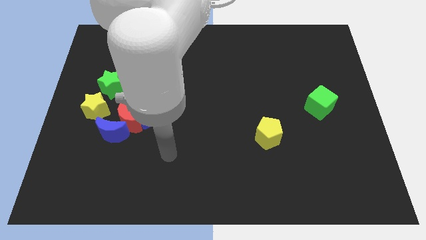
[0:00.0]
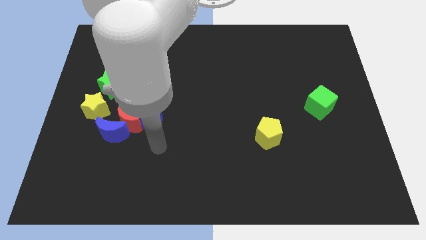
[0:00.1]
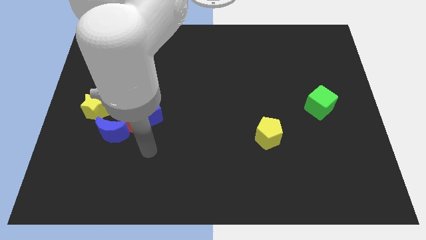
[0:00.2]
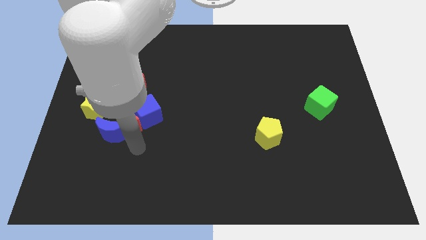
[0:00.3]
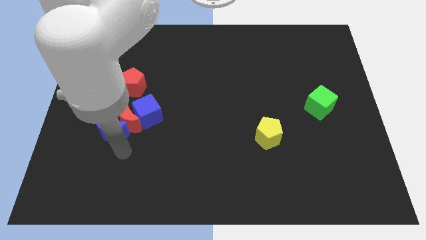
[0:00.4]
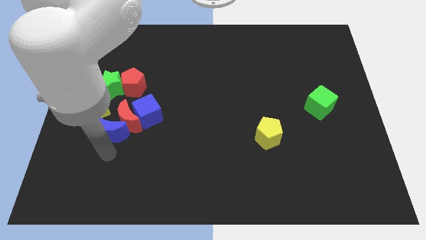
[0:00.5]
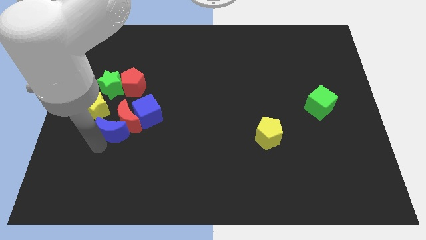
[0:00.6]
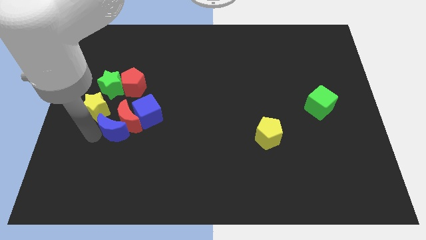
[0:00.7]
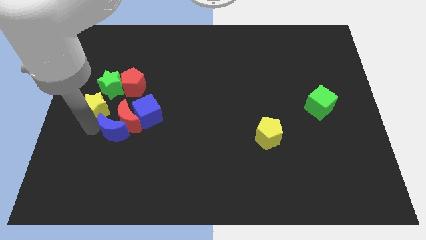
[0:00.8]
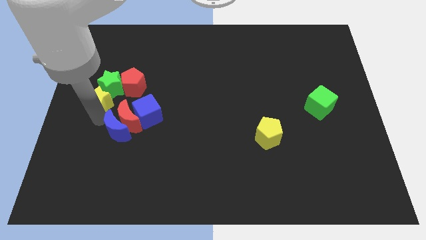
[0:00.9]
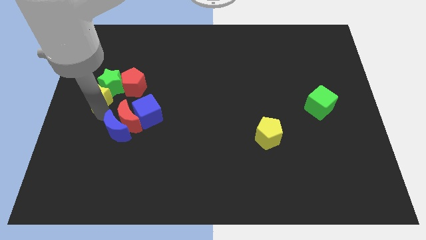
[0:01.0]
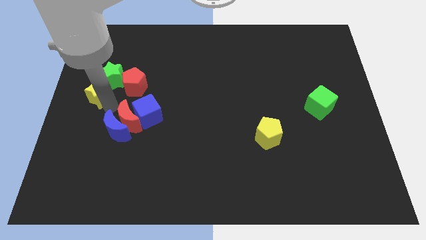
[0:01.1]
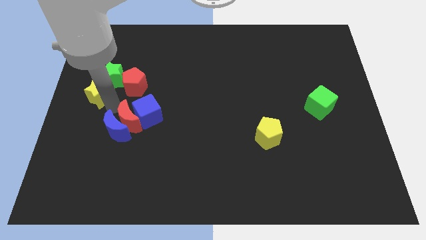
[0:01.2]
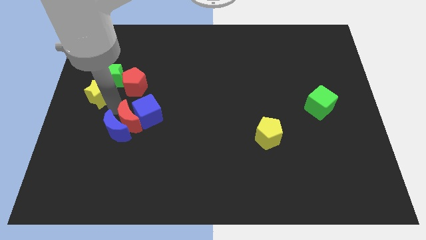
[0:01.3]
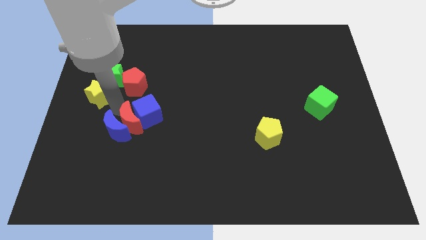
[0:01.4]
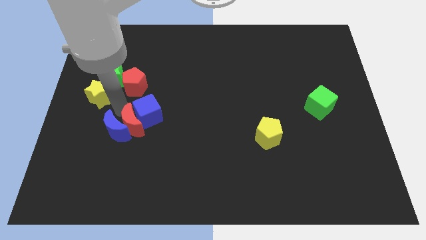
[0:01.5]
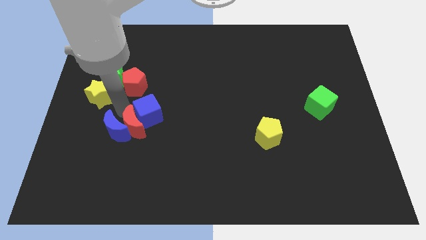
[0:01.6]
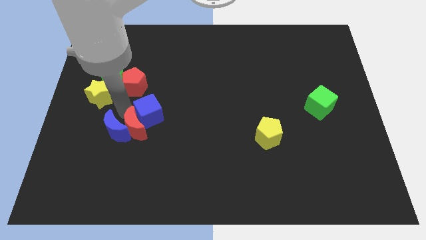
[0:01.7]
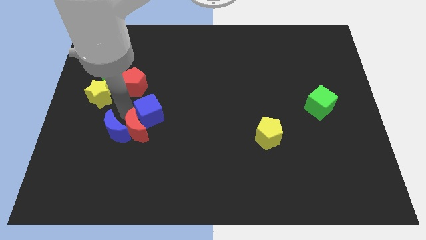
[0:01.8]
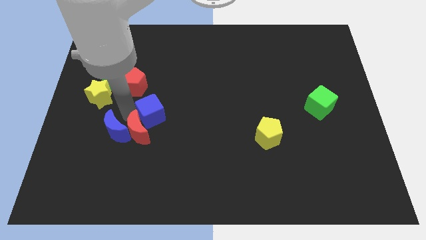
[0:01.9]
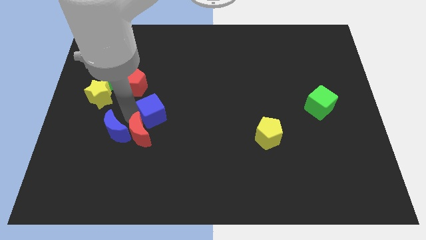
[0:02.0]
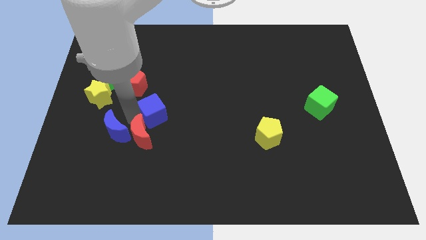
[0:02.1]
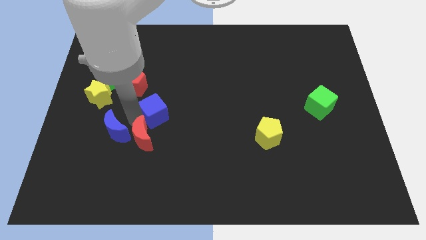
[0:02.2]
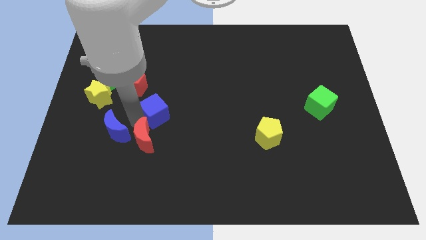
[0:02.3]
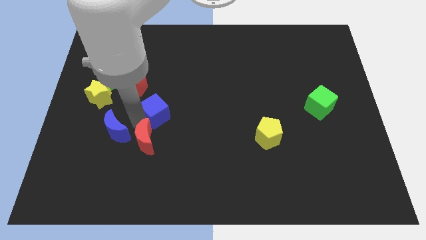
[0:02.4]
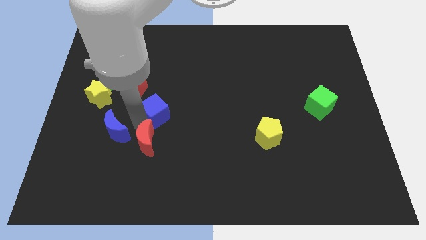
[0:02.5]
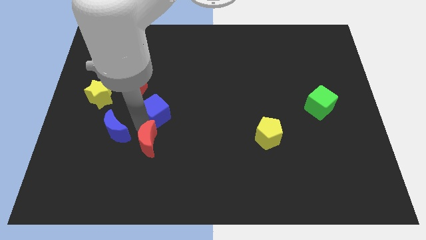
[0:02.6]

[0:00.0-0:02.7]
pull the red moon apart from the group of blocks

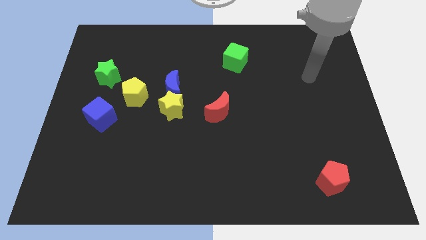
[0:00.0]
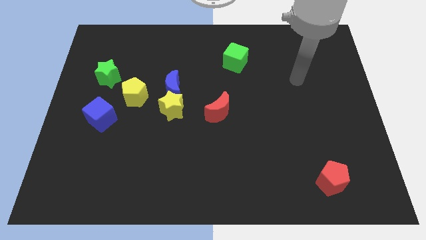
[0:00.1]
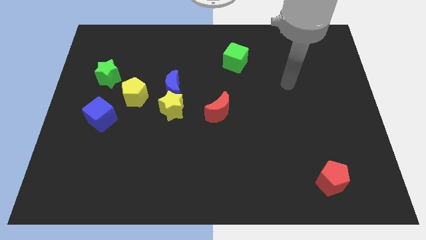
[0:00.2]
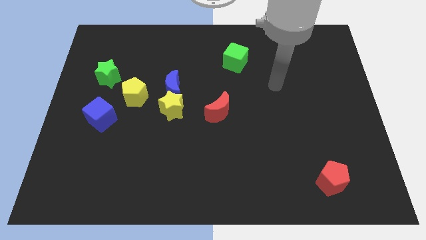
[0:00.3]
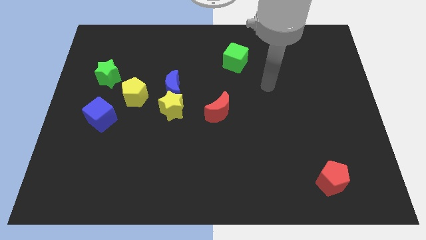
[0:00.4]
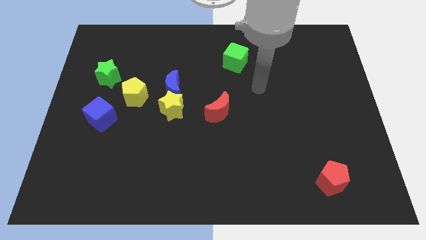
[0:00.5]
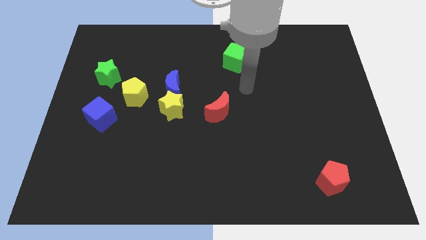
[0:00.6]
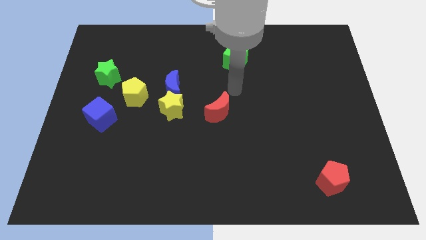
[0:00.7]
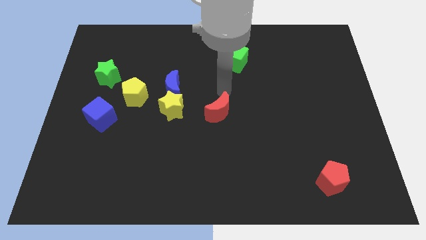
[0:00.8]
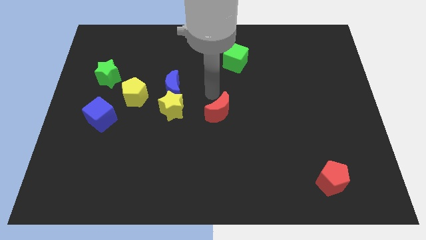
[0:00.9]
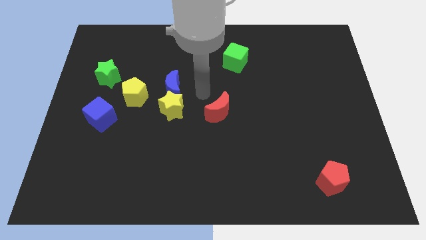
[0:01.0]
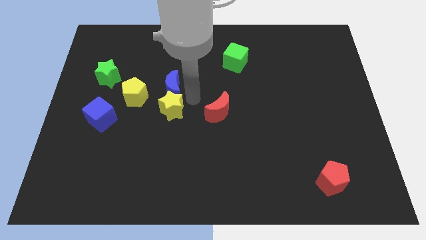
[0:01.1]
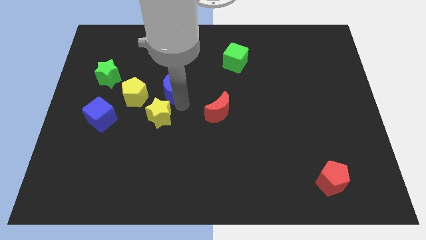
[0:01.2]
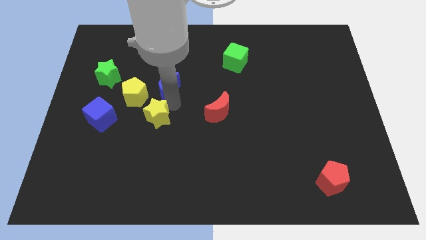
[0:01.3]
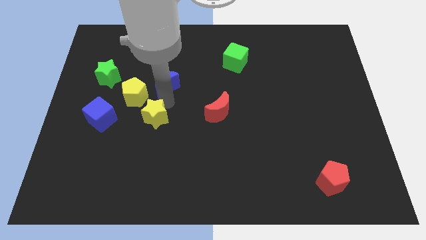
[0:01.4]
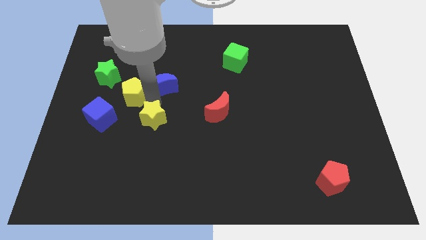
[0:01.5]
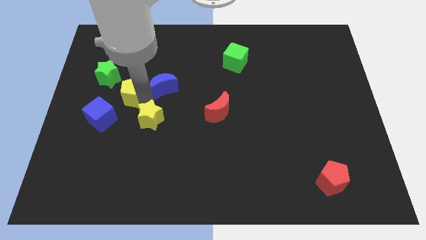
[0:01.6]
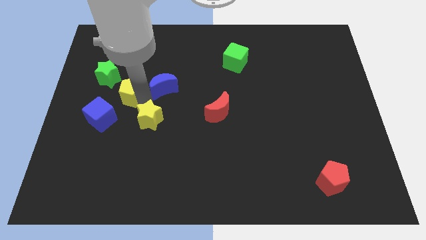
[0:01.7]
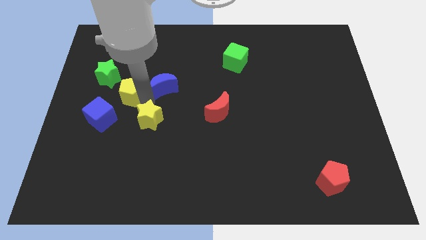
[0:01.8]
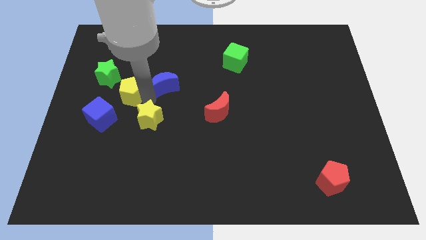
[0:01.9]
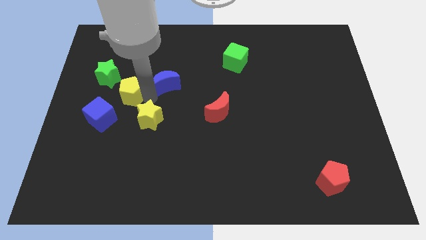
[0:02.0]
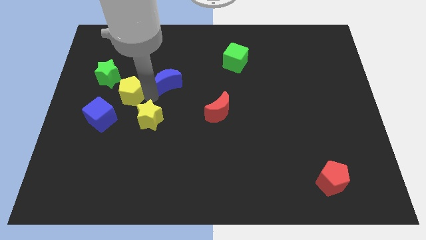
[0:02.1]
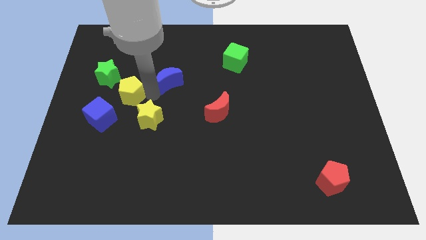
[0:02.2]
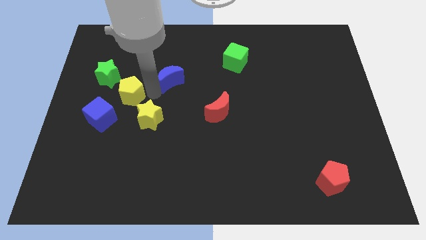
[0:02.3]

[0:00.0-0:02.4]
move the blue moon away from the yellow star and yellow pentagon

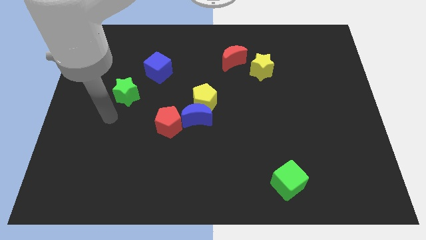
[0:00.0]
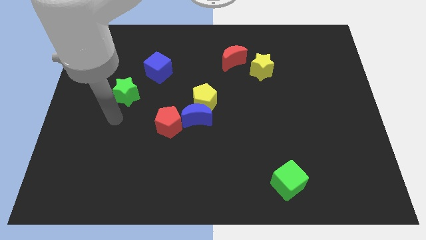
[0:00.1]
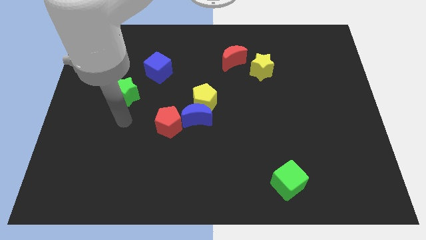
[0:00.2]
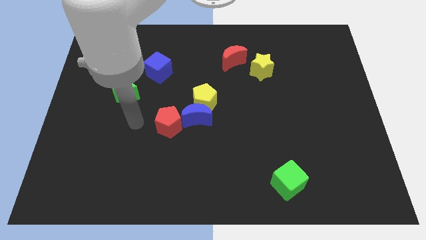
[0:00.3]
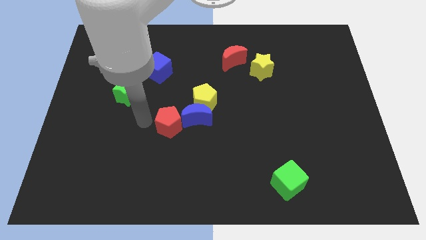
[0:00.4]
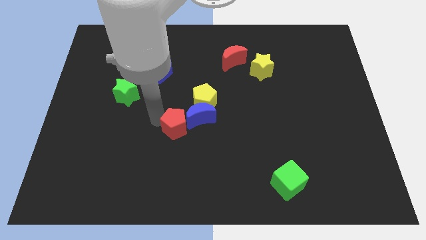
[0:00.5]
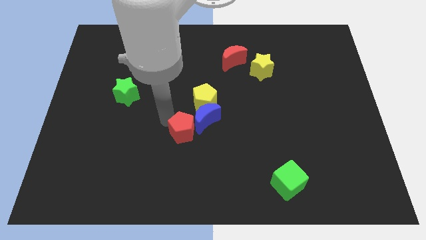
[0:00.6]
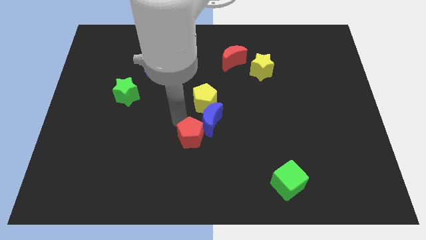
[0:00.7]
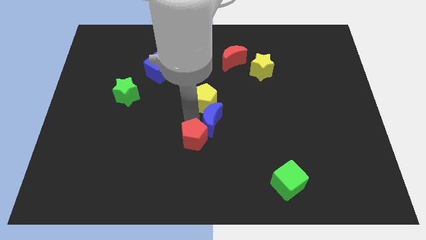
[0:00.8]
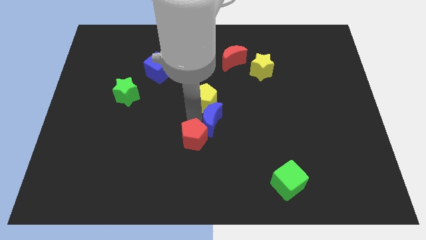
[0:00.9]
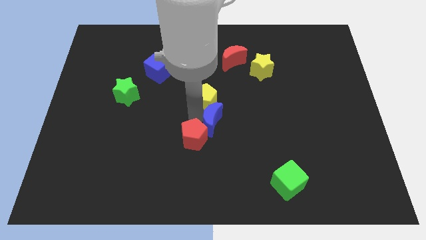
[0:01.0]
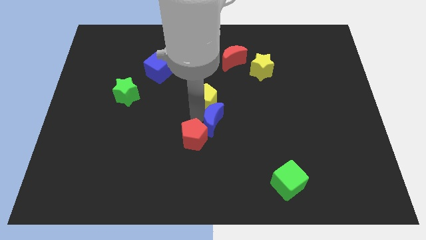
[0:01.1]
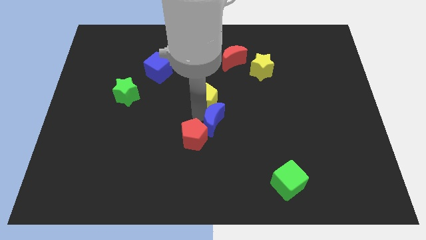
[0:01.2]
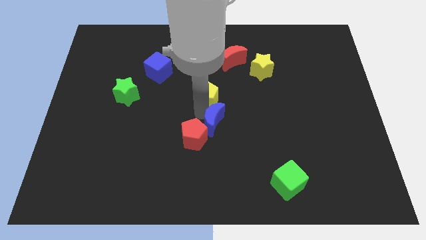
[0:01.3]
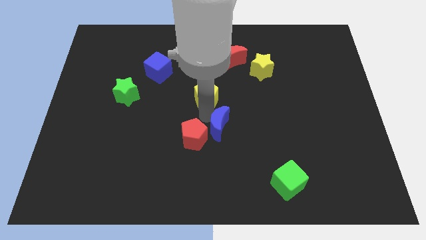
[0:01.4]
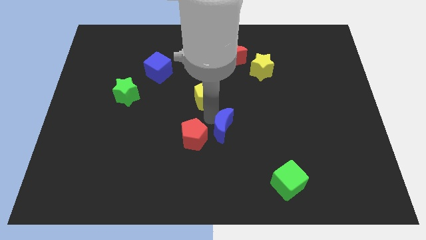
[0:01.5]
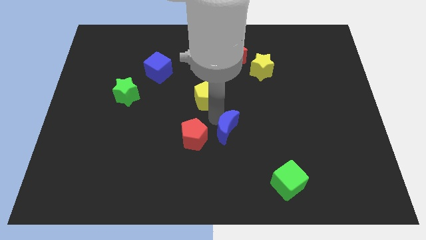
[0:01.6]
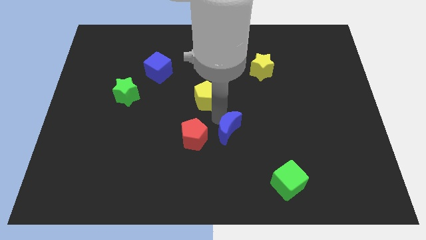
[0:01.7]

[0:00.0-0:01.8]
separate the yellow pentagon from the blue moon

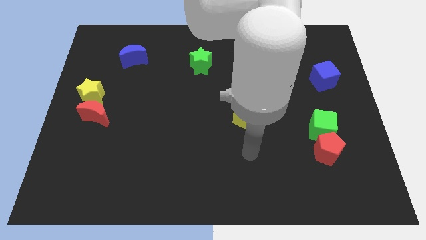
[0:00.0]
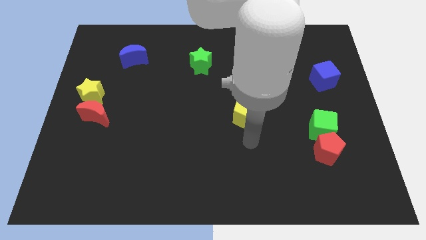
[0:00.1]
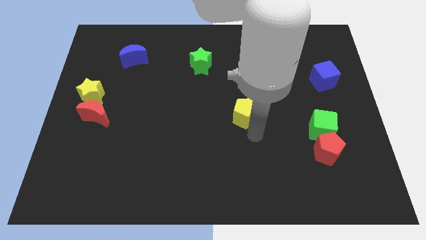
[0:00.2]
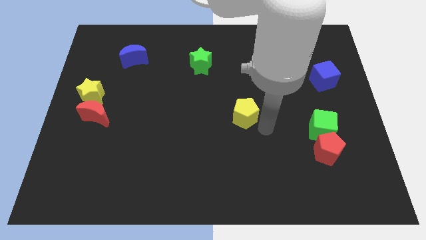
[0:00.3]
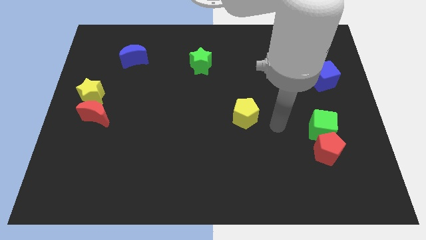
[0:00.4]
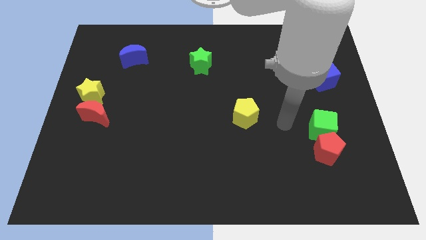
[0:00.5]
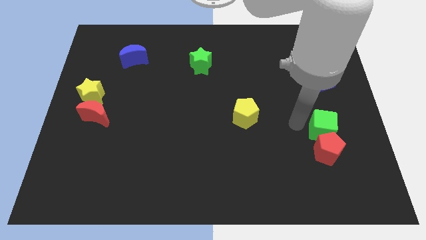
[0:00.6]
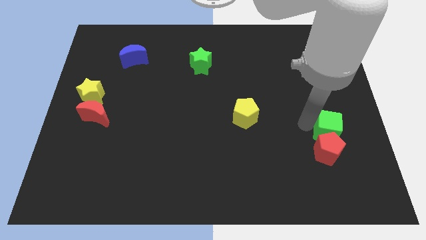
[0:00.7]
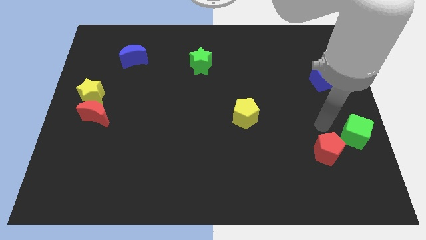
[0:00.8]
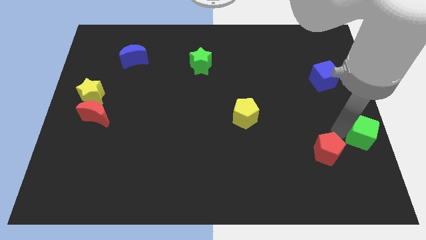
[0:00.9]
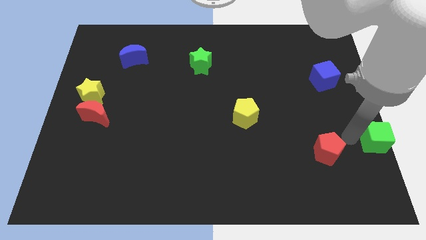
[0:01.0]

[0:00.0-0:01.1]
separate the red pentagon from the green cube

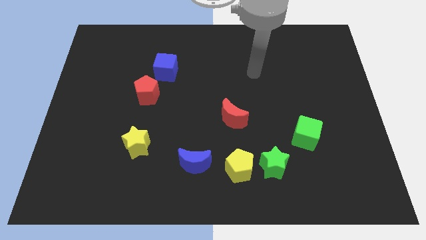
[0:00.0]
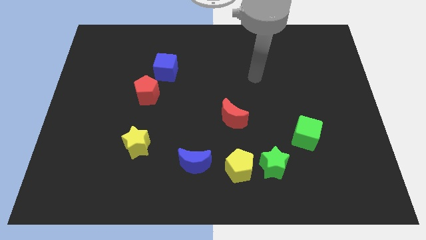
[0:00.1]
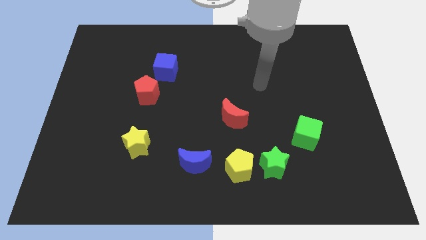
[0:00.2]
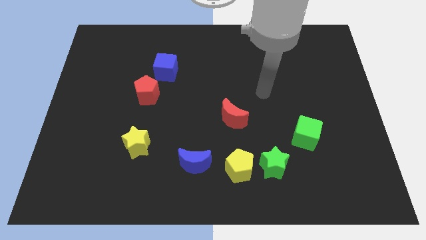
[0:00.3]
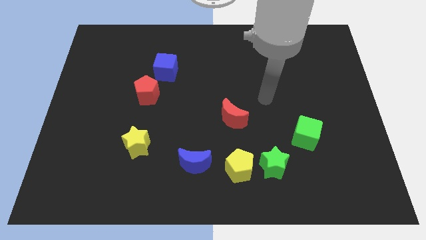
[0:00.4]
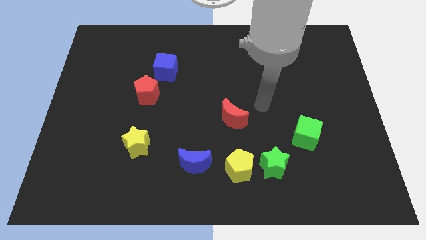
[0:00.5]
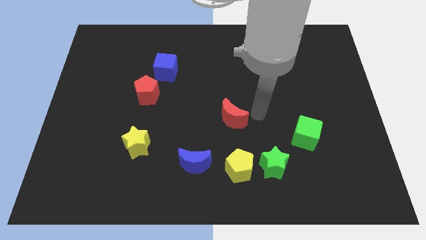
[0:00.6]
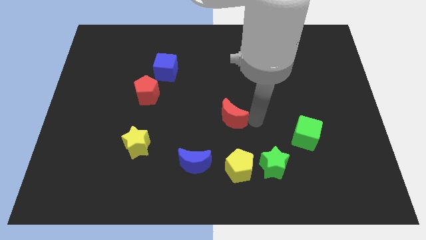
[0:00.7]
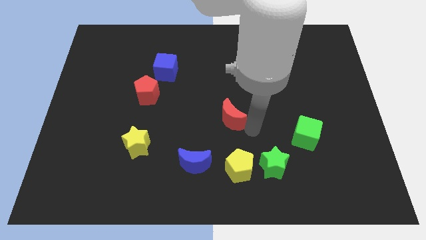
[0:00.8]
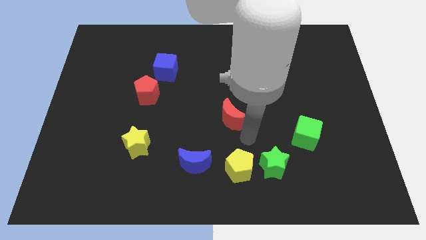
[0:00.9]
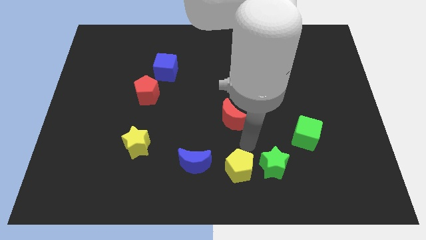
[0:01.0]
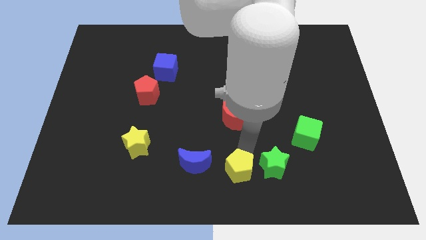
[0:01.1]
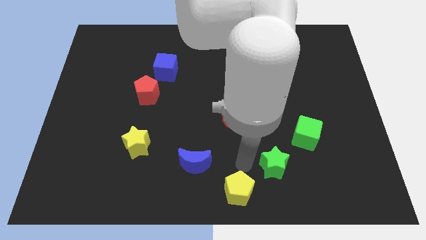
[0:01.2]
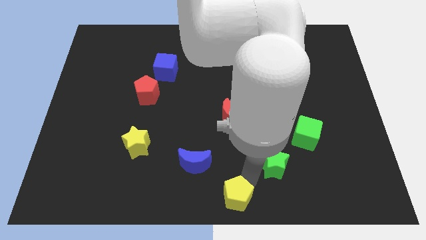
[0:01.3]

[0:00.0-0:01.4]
move the green star away from the yellow pentagon
